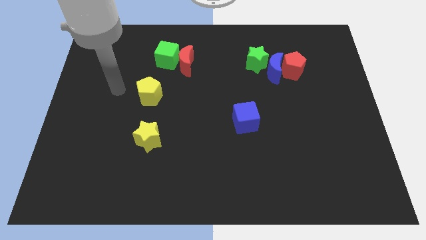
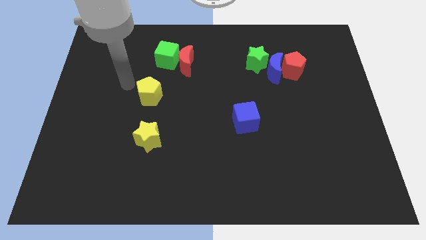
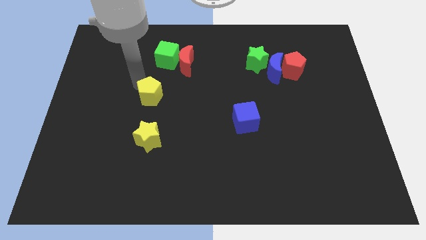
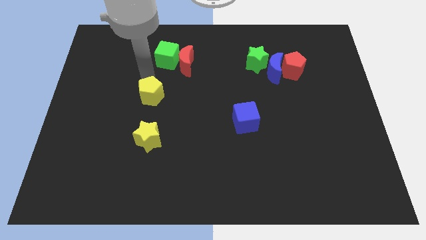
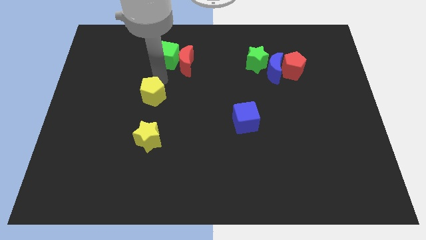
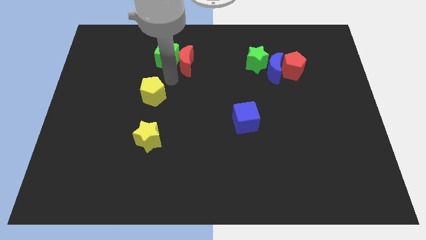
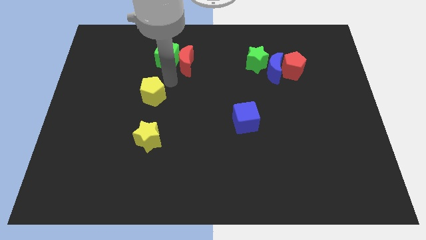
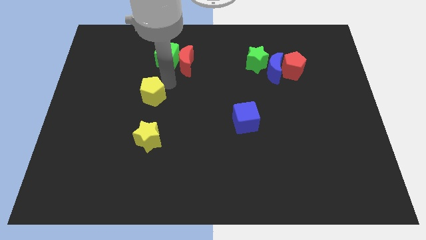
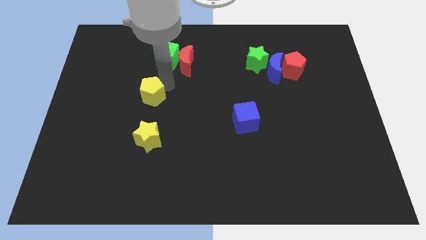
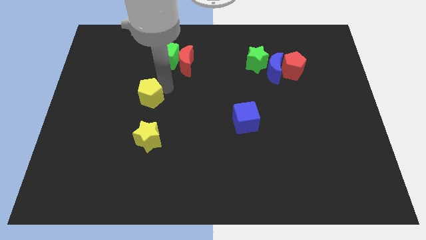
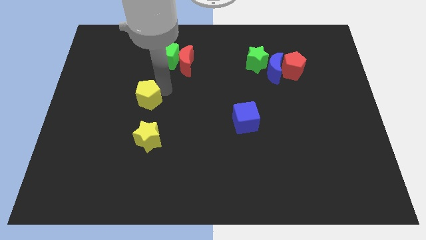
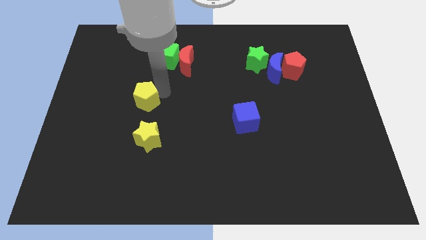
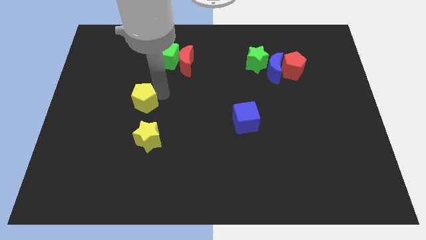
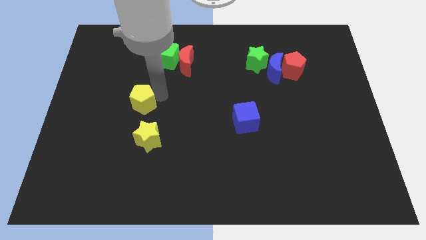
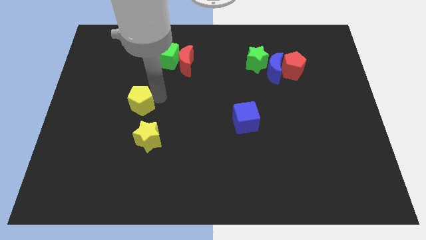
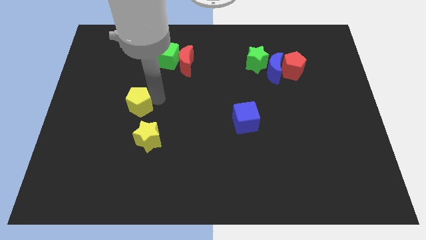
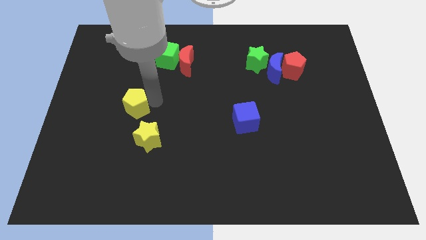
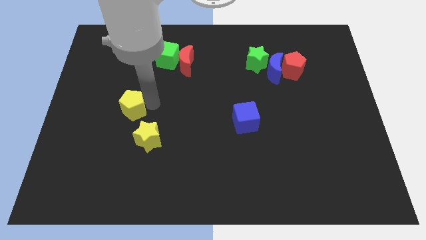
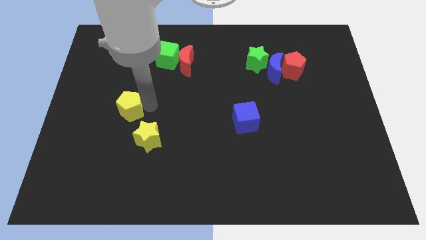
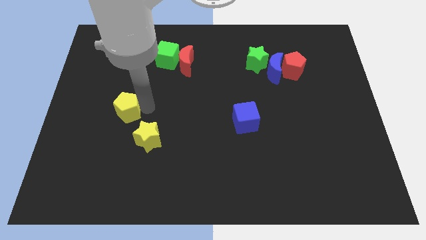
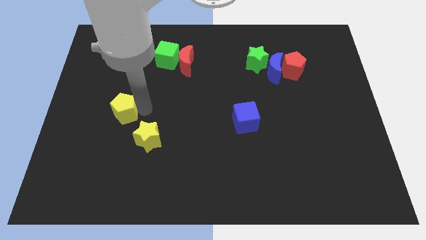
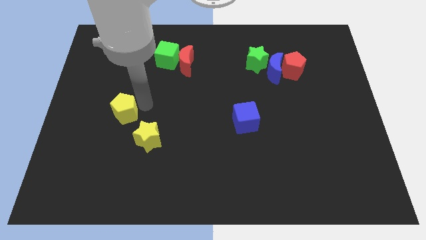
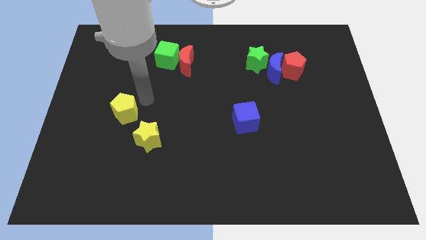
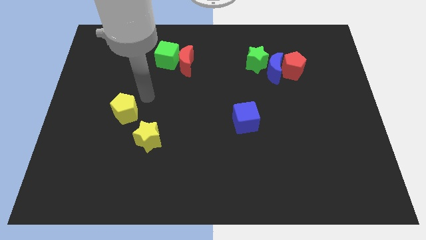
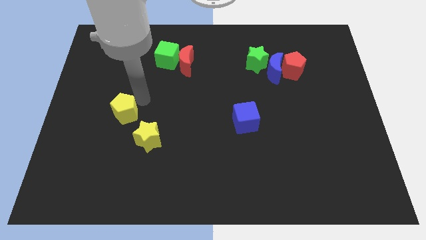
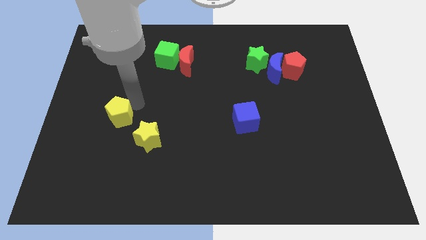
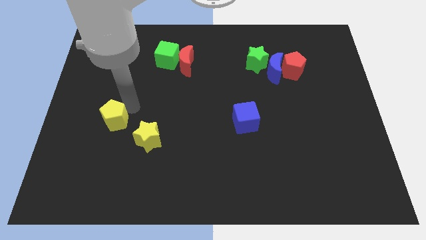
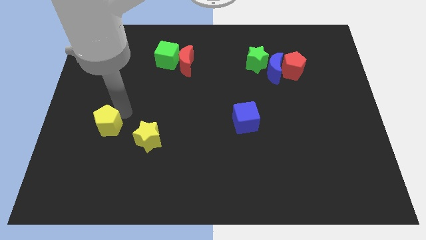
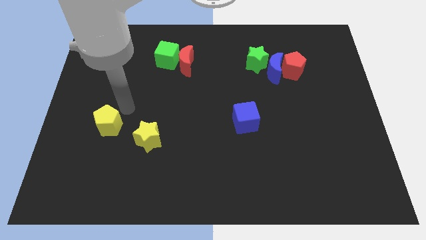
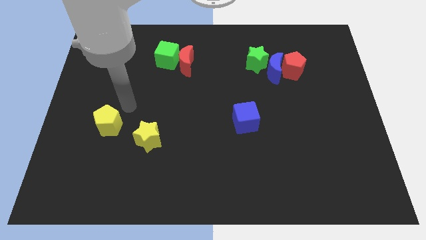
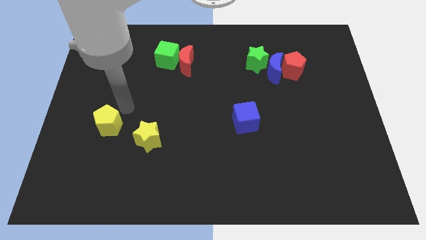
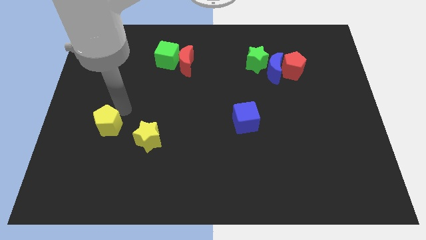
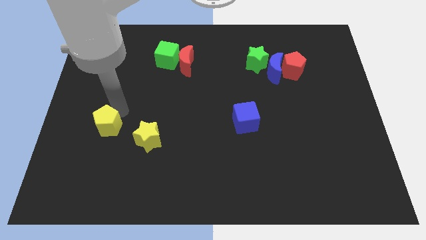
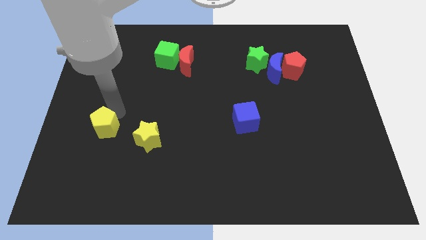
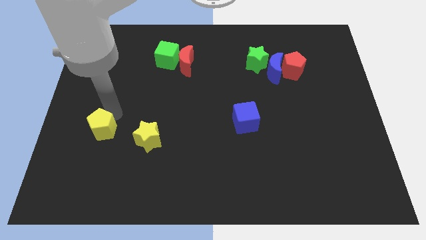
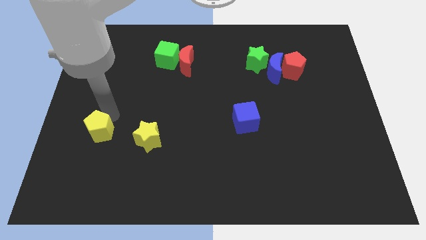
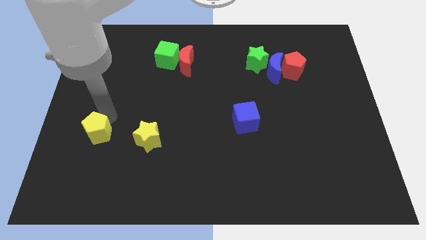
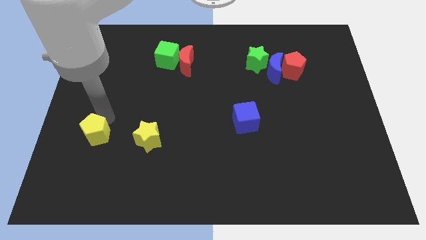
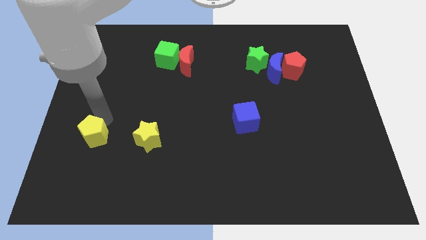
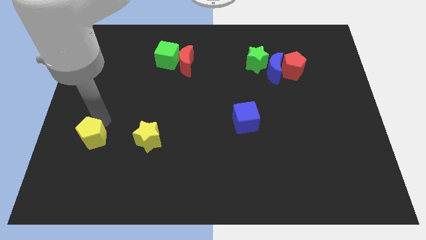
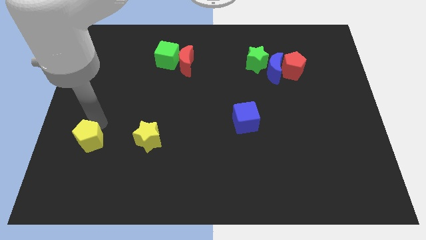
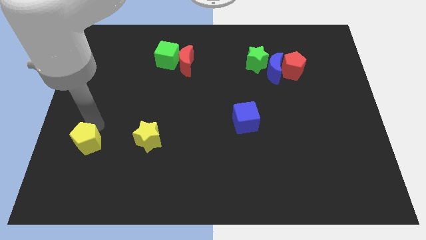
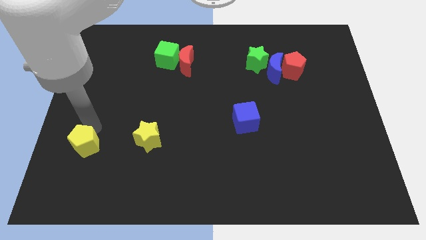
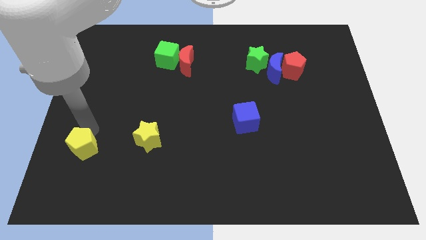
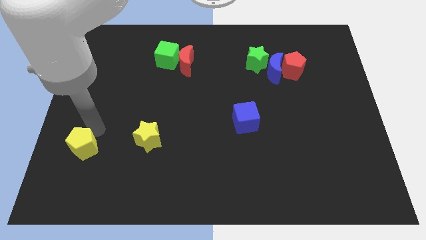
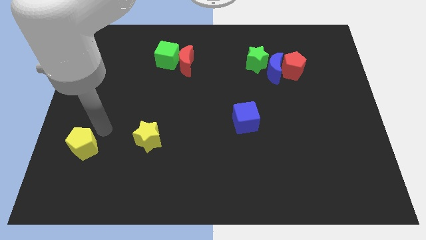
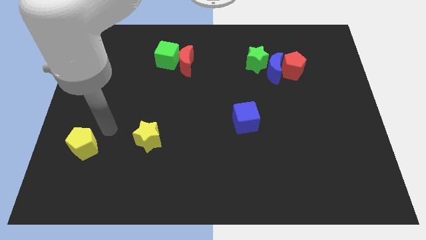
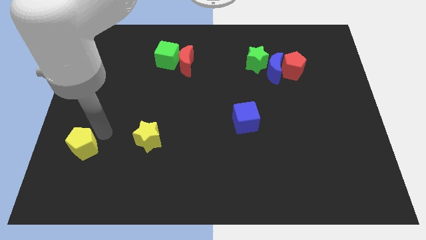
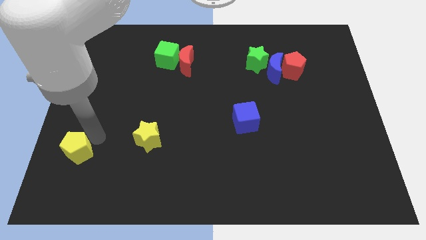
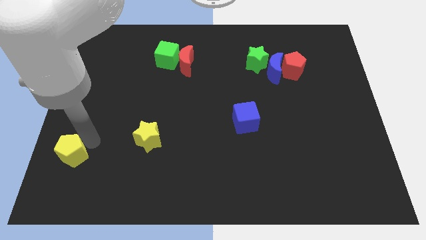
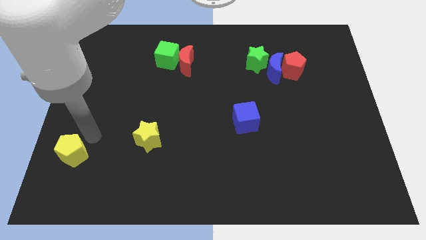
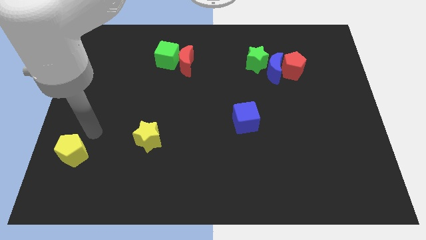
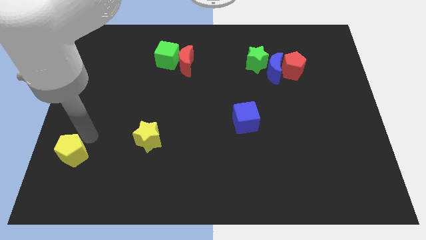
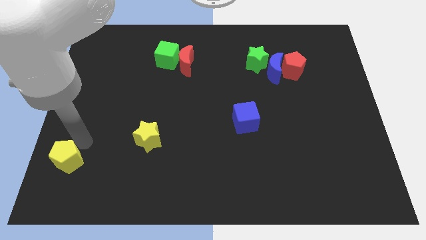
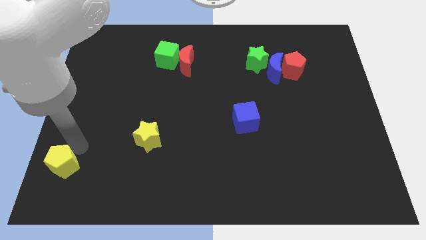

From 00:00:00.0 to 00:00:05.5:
push the yellow pentagon to the bottom left of the board

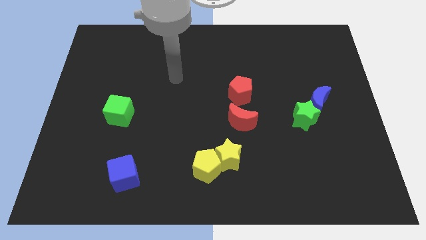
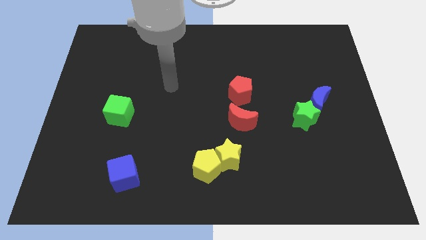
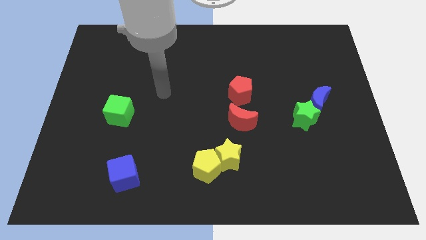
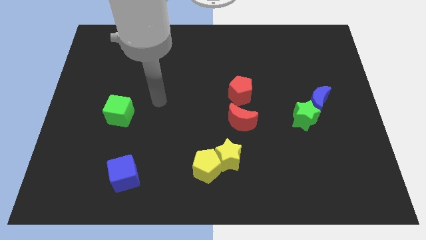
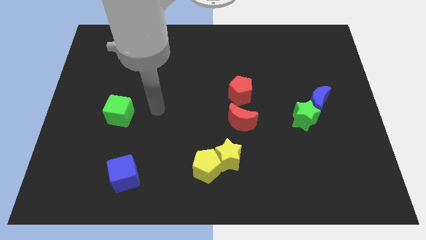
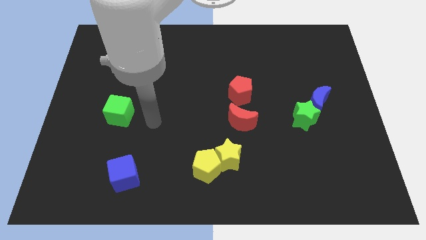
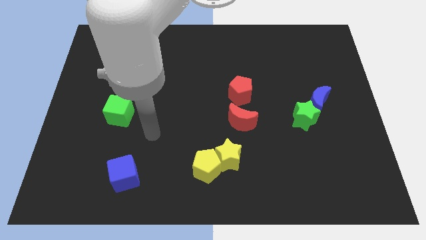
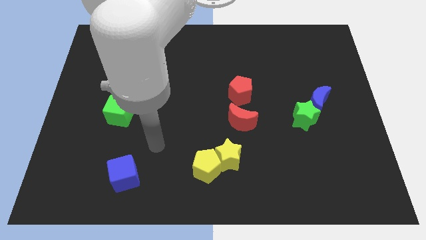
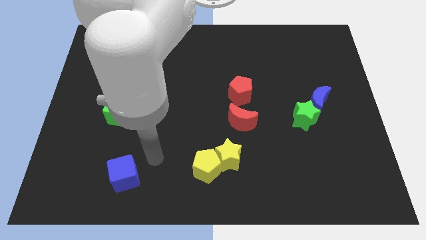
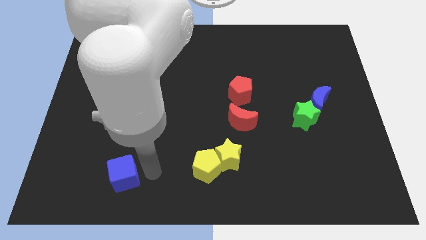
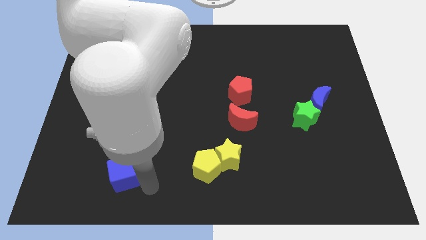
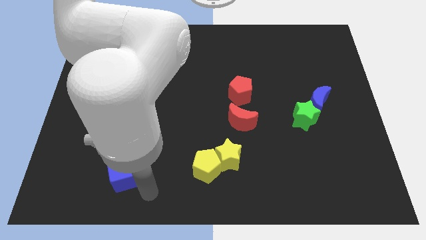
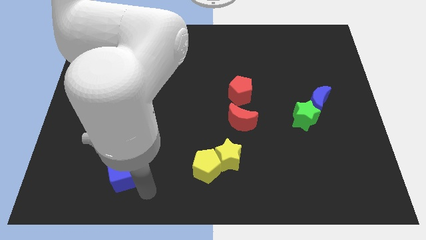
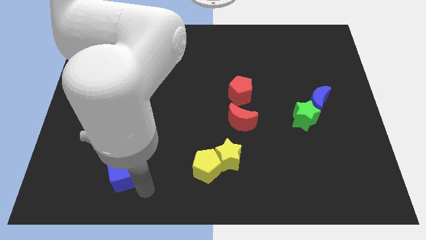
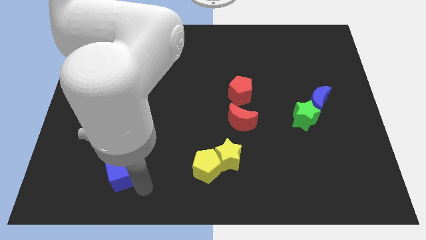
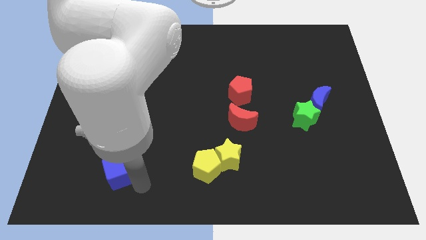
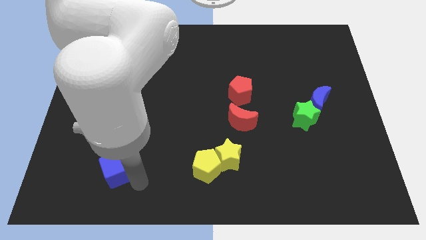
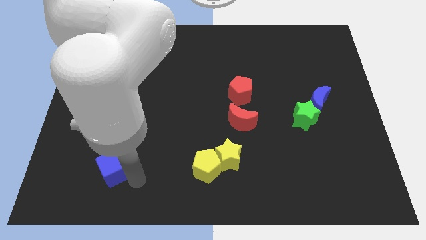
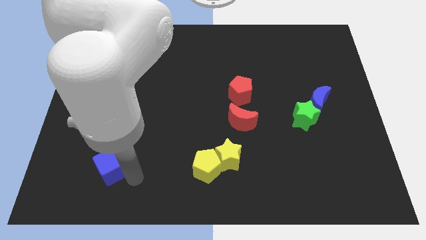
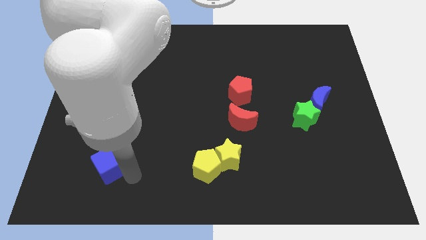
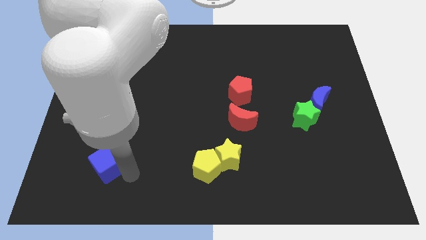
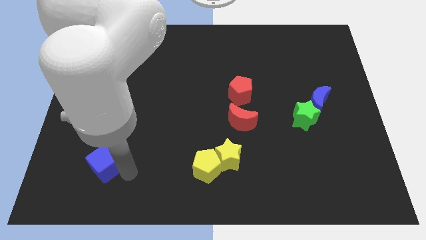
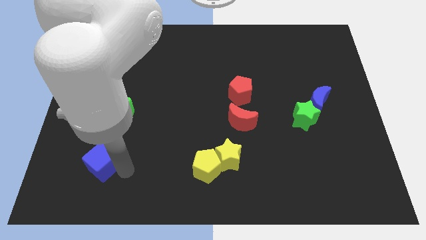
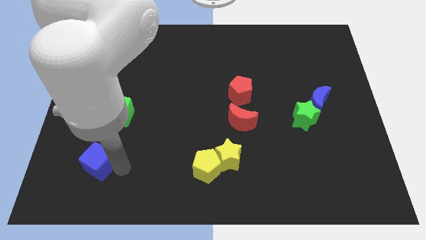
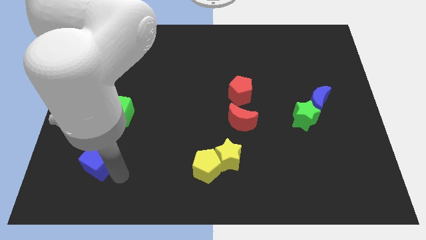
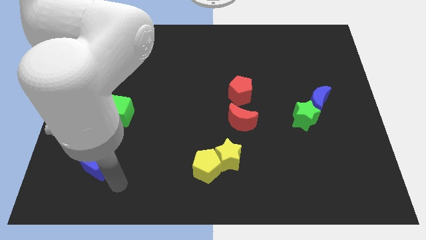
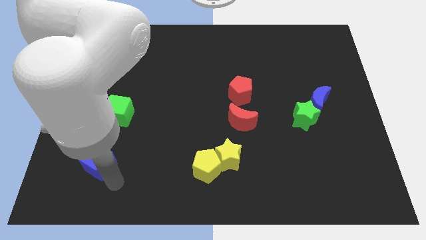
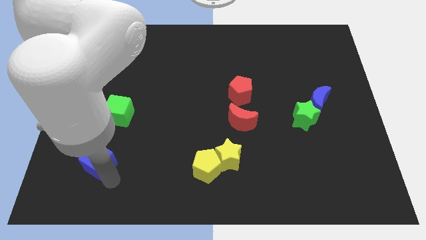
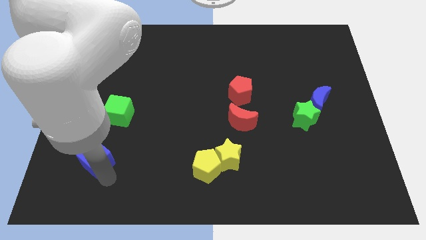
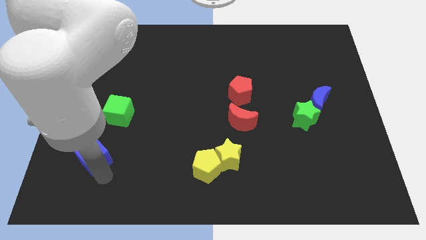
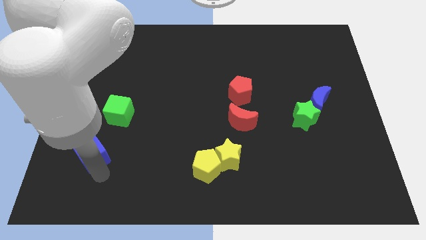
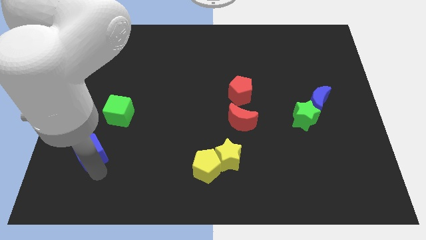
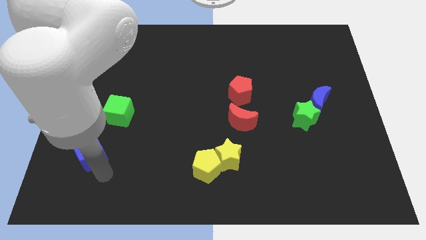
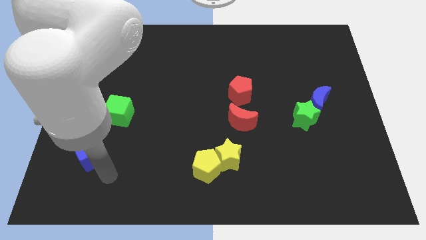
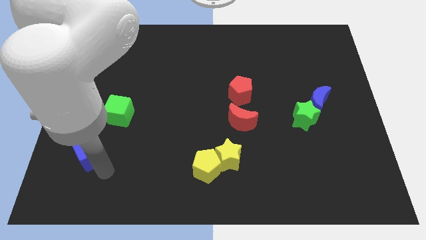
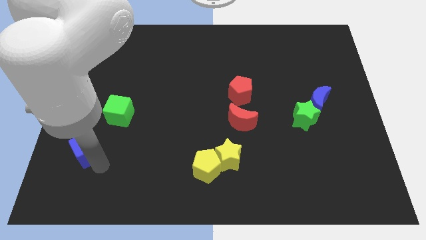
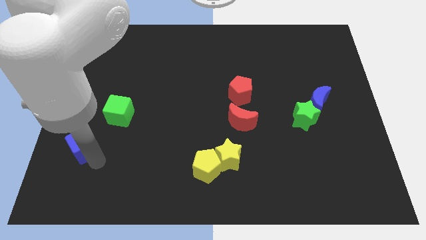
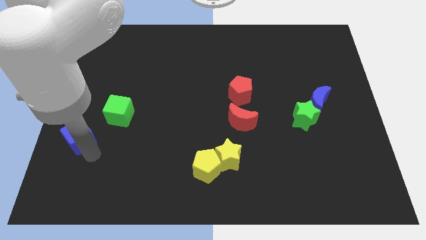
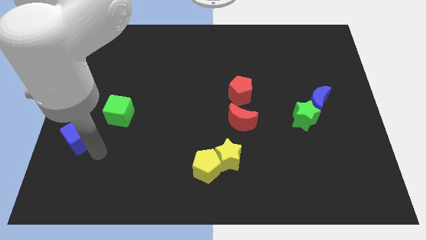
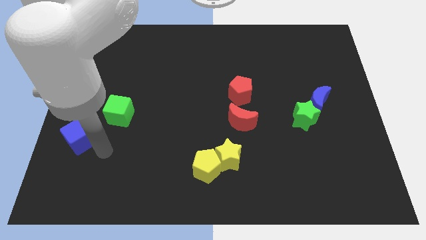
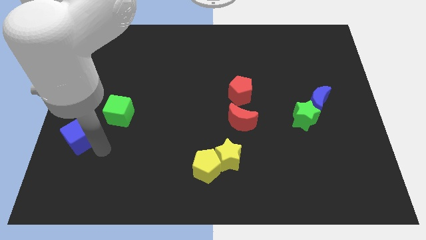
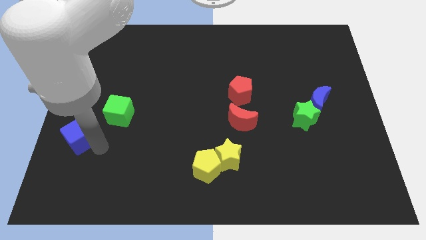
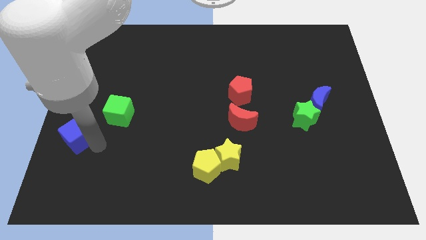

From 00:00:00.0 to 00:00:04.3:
put the blue cube to the left side
